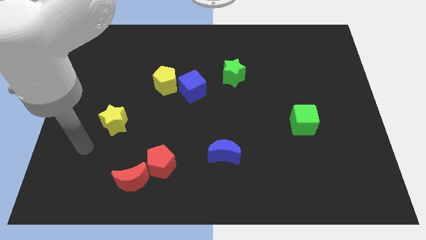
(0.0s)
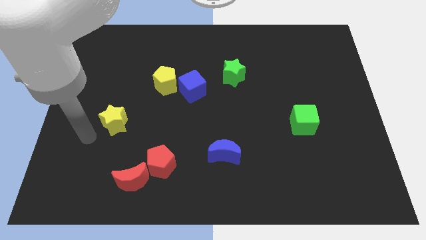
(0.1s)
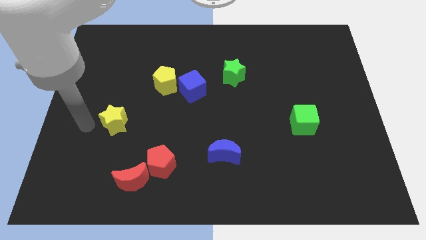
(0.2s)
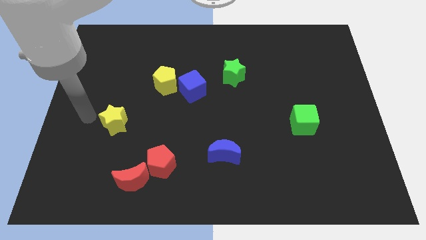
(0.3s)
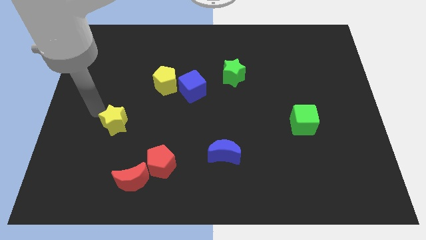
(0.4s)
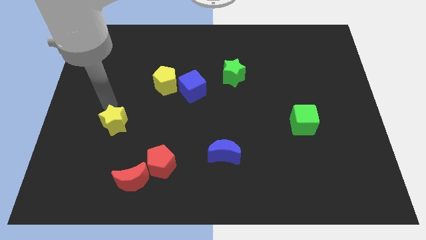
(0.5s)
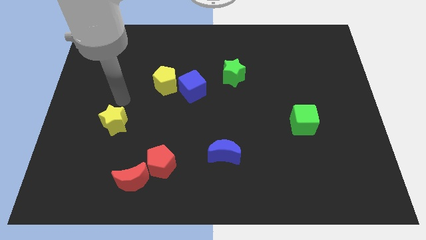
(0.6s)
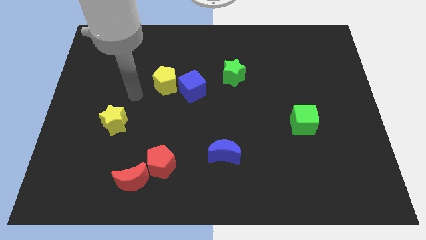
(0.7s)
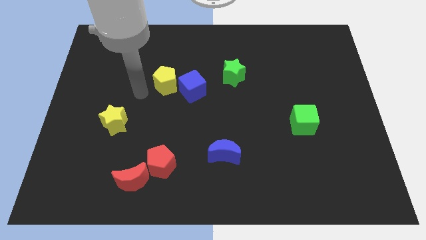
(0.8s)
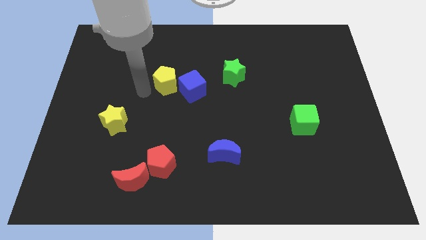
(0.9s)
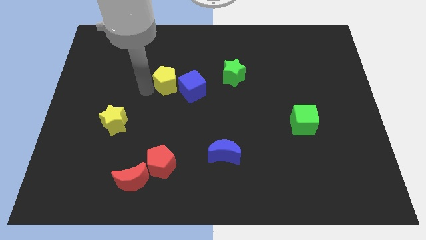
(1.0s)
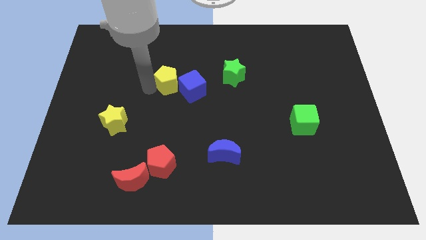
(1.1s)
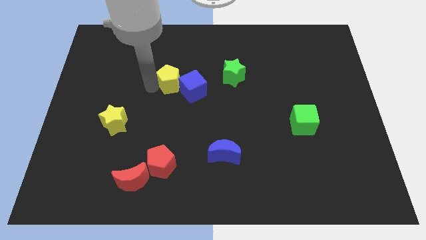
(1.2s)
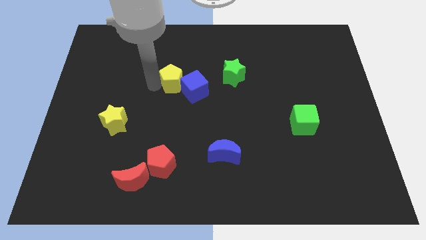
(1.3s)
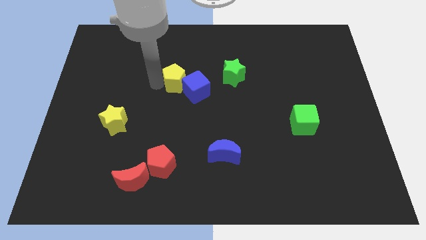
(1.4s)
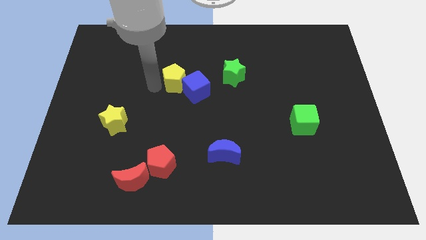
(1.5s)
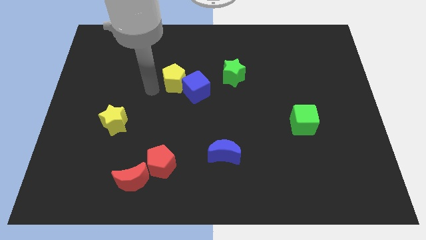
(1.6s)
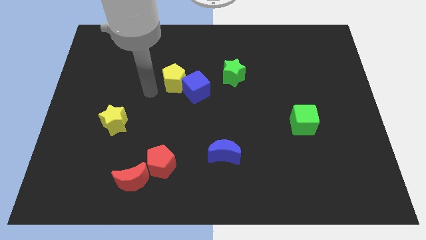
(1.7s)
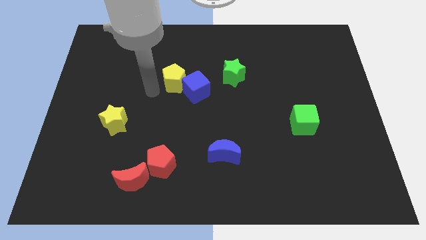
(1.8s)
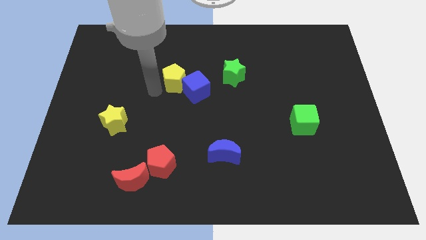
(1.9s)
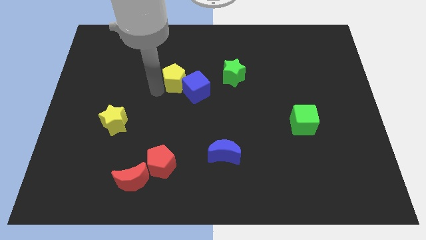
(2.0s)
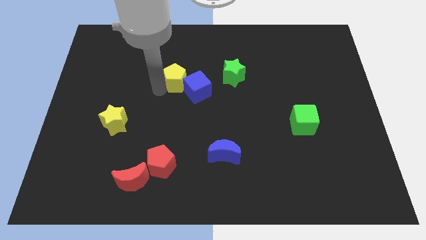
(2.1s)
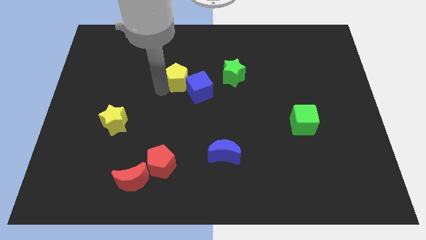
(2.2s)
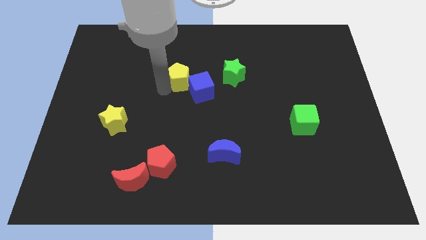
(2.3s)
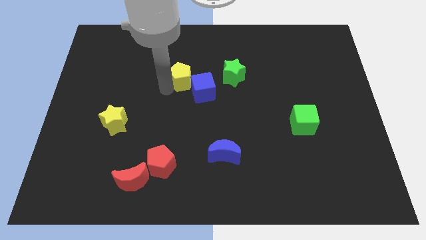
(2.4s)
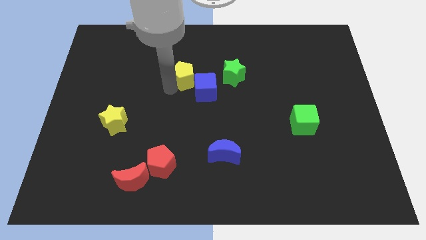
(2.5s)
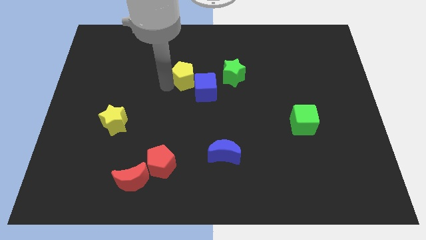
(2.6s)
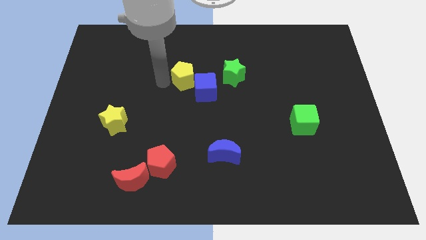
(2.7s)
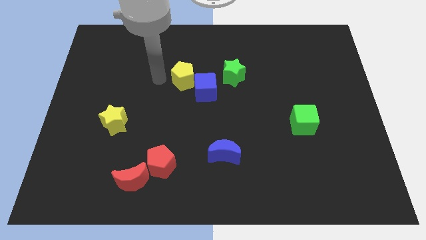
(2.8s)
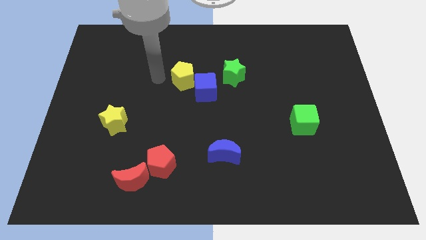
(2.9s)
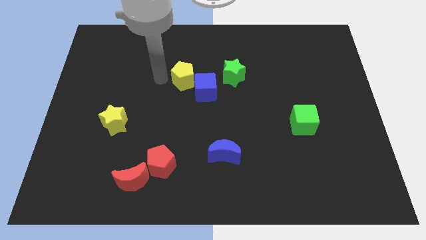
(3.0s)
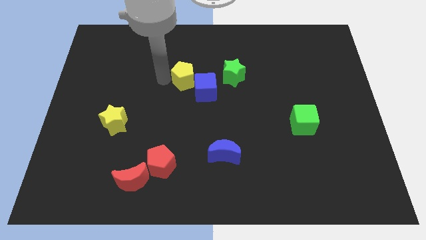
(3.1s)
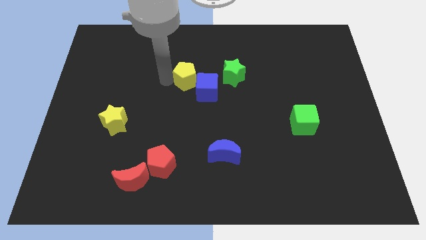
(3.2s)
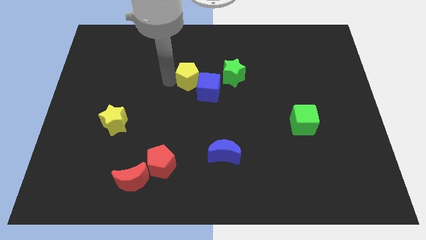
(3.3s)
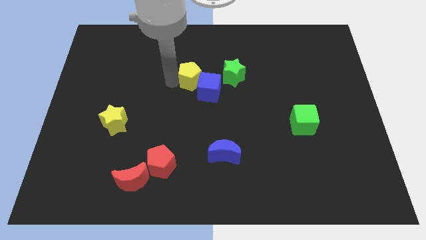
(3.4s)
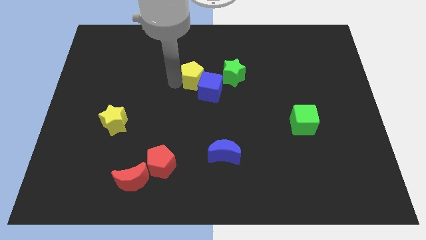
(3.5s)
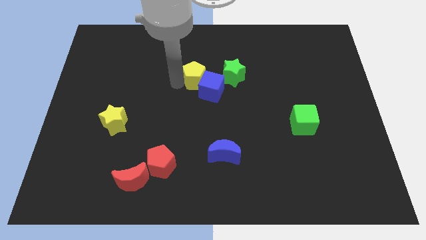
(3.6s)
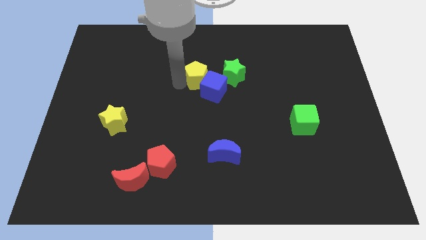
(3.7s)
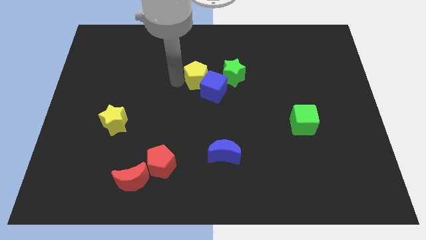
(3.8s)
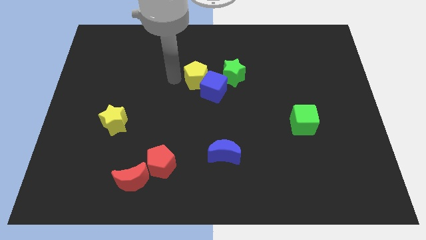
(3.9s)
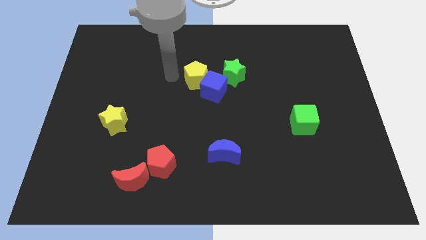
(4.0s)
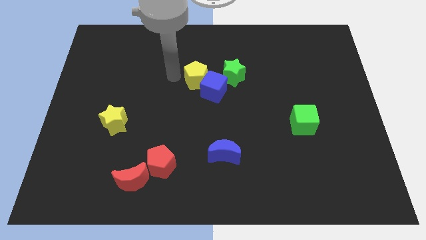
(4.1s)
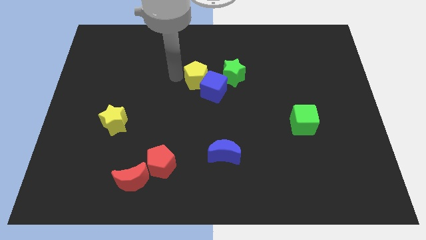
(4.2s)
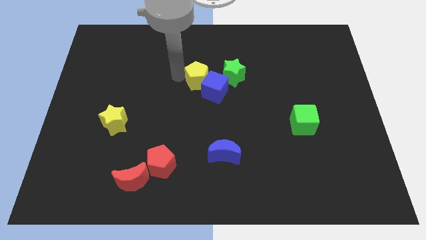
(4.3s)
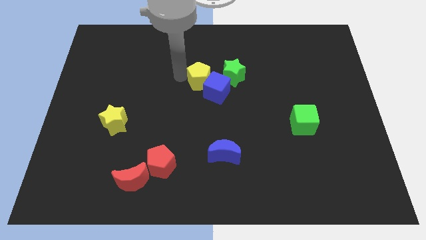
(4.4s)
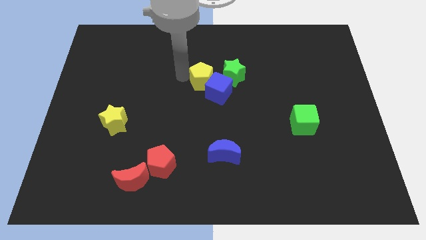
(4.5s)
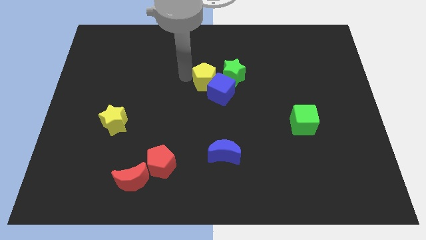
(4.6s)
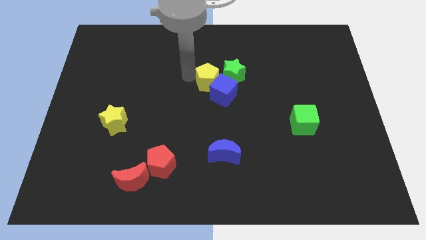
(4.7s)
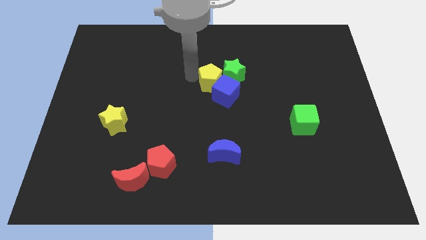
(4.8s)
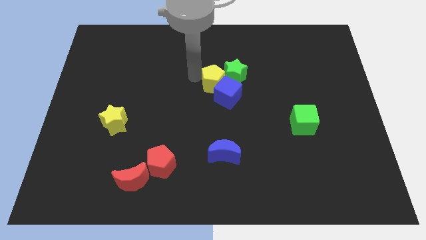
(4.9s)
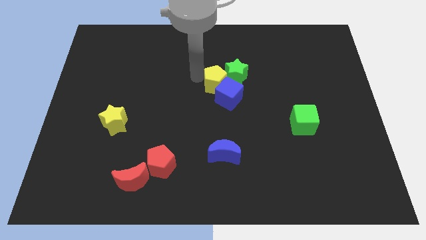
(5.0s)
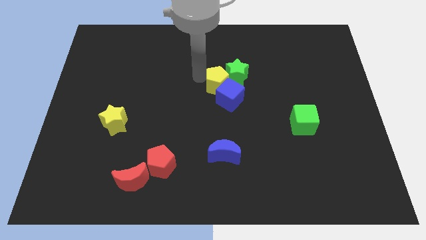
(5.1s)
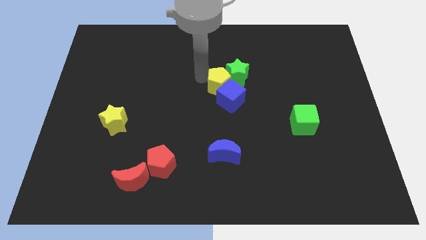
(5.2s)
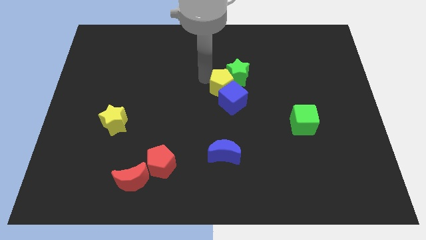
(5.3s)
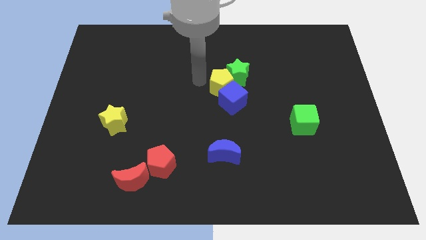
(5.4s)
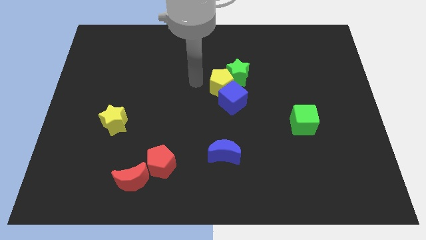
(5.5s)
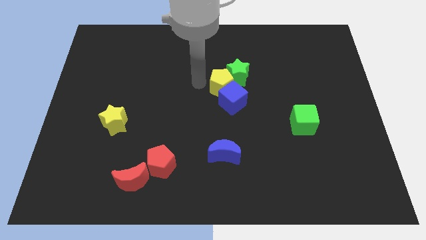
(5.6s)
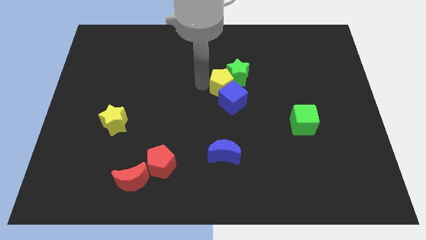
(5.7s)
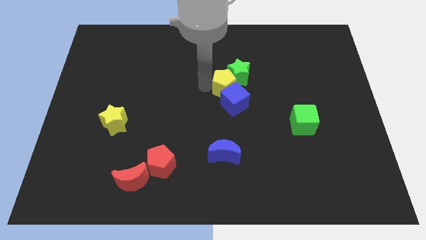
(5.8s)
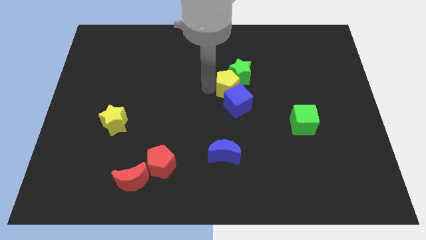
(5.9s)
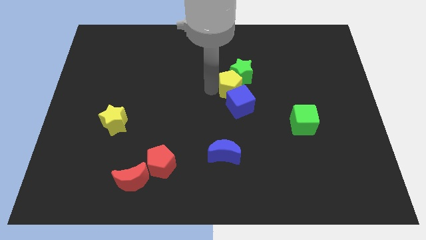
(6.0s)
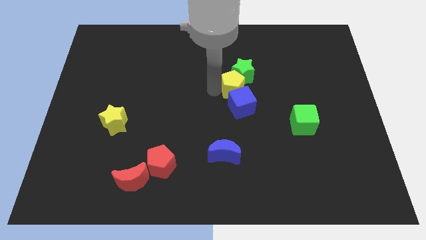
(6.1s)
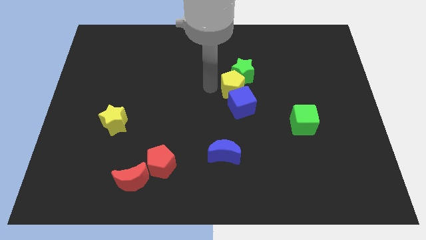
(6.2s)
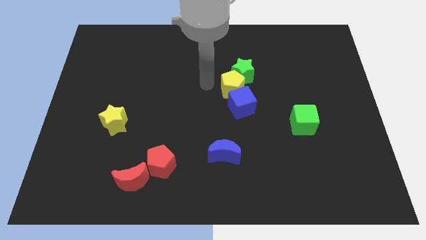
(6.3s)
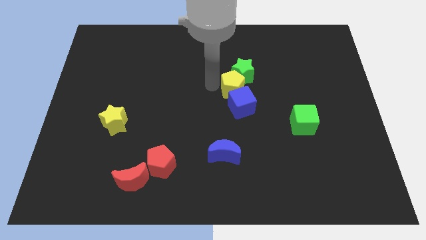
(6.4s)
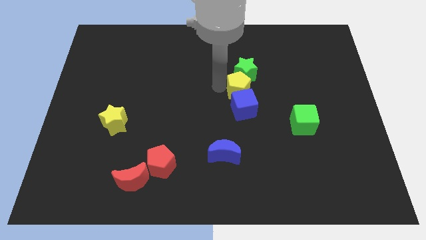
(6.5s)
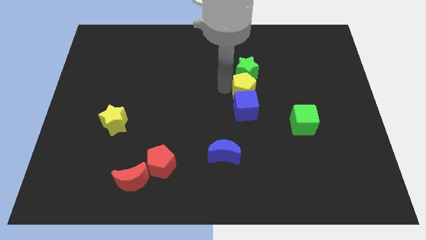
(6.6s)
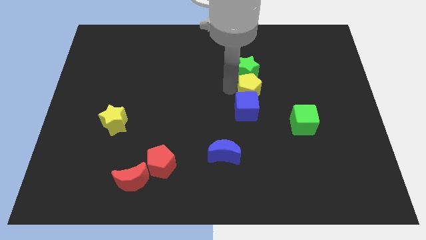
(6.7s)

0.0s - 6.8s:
move the yellow pentagon to the right

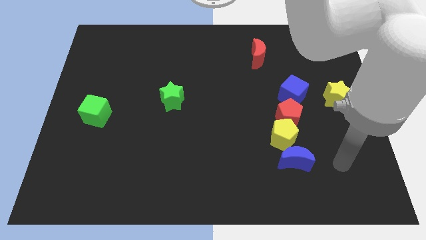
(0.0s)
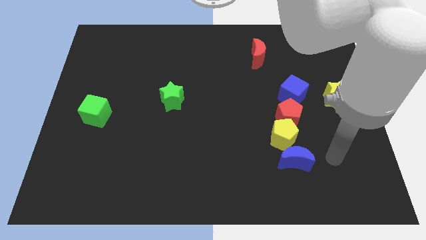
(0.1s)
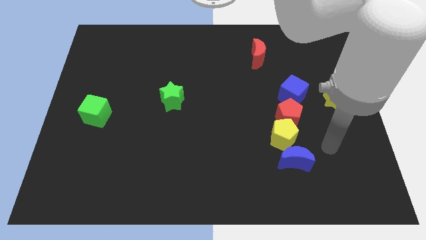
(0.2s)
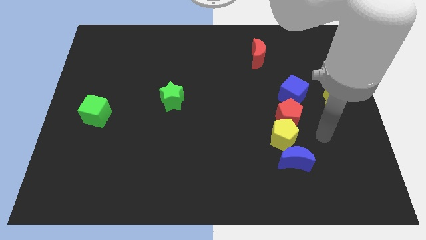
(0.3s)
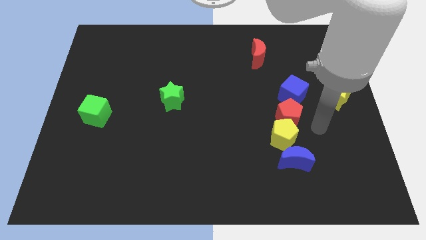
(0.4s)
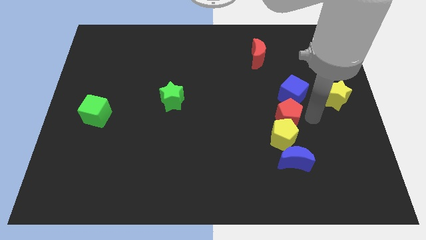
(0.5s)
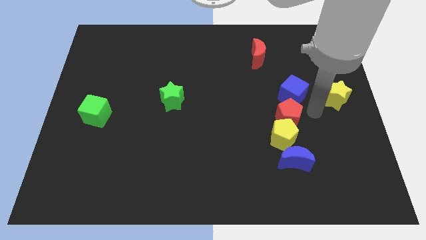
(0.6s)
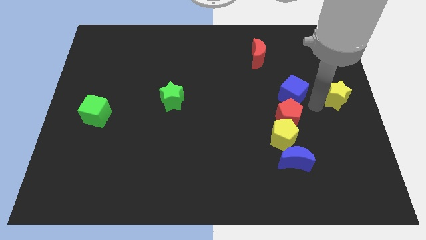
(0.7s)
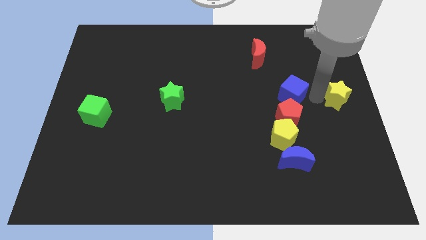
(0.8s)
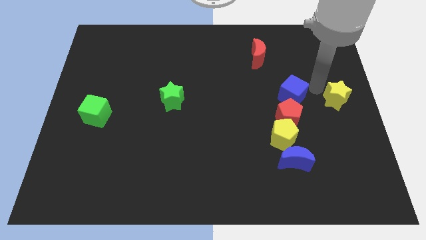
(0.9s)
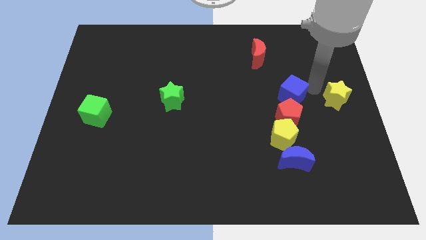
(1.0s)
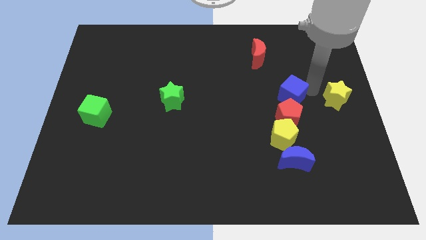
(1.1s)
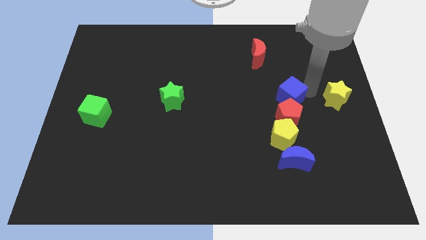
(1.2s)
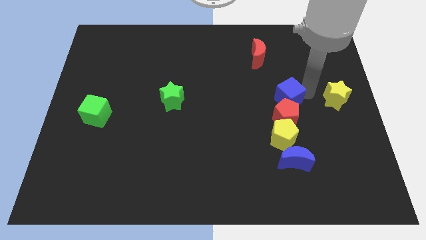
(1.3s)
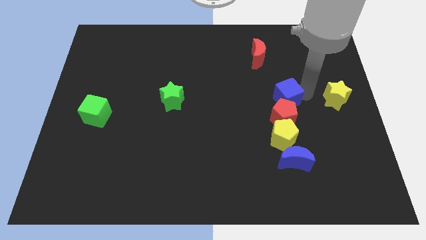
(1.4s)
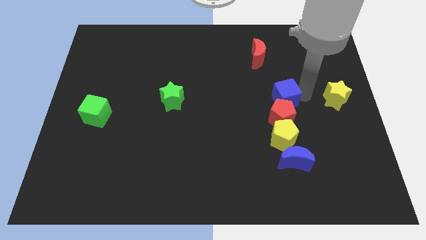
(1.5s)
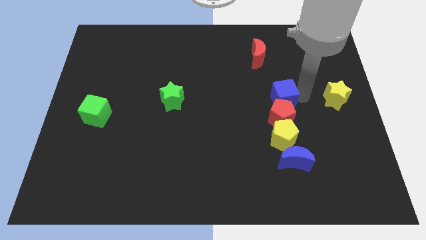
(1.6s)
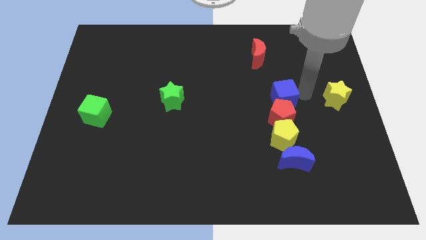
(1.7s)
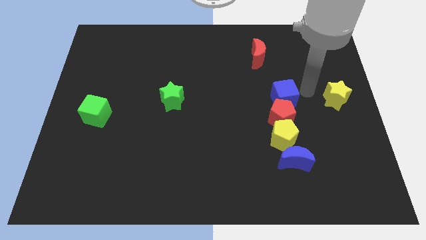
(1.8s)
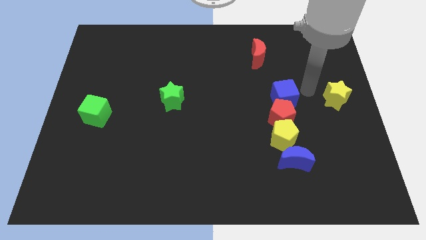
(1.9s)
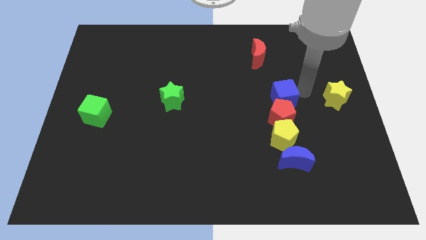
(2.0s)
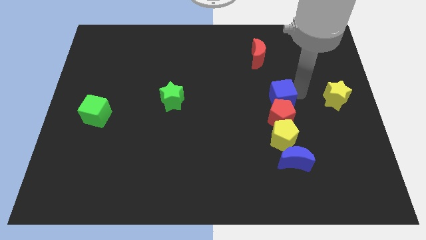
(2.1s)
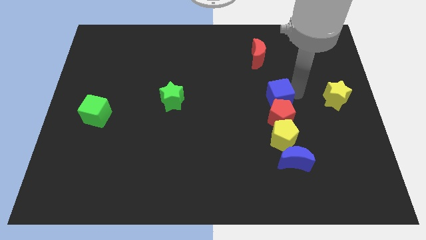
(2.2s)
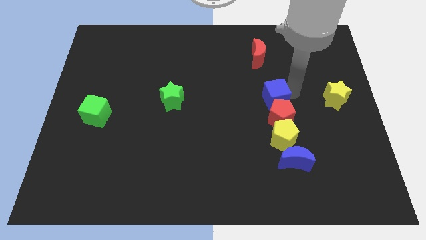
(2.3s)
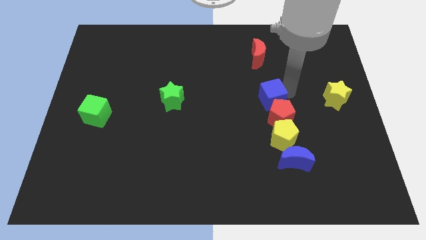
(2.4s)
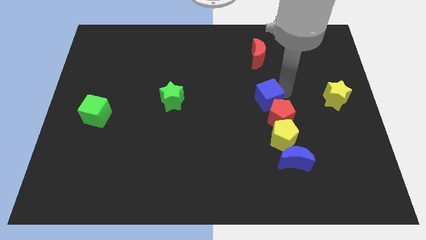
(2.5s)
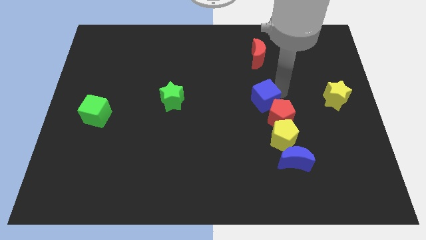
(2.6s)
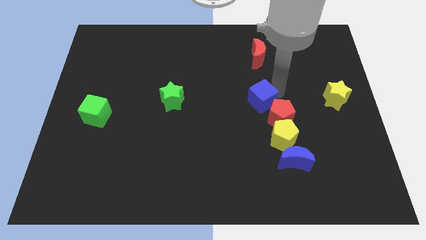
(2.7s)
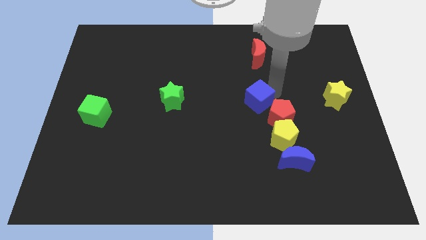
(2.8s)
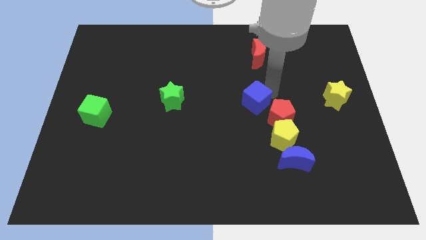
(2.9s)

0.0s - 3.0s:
slightly push the blue cube diagonally downwards and left
